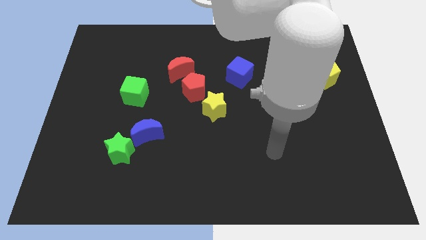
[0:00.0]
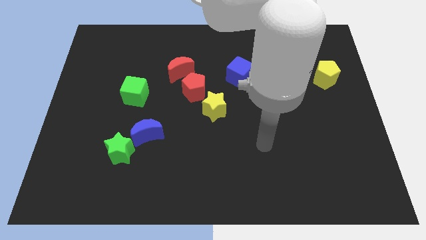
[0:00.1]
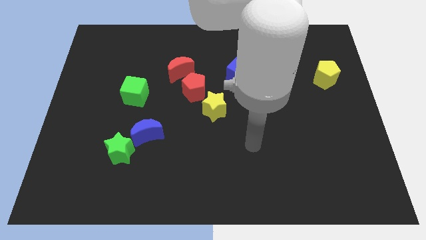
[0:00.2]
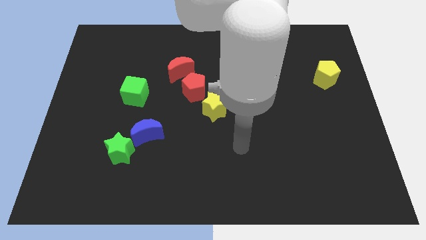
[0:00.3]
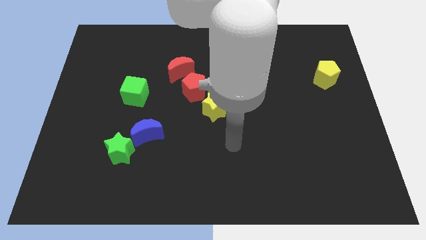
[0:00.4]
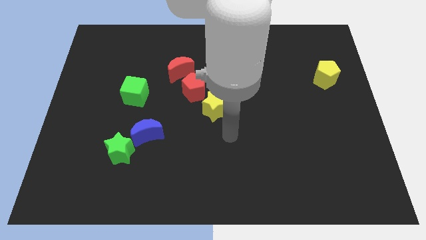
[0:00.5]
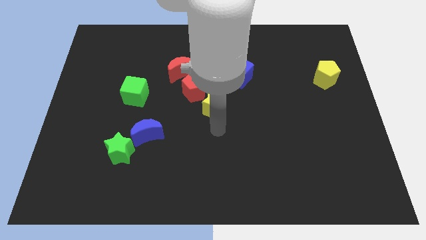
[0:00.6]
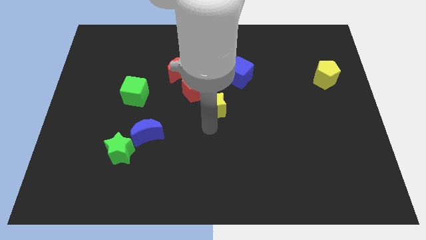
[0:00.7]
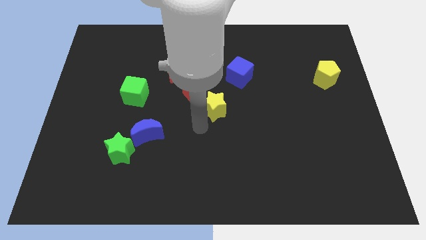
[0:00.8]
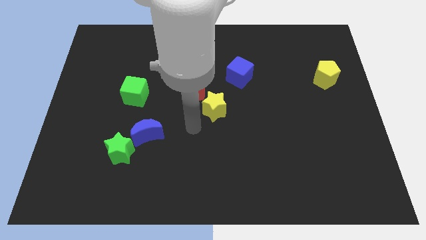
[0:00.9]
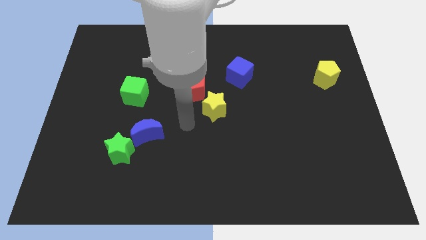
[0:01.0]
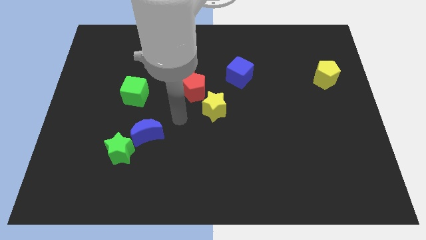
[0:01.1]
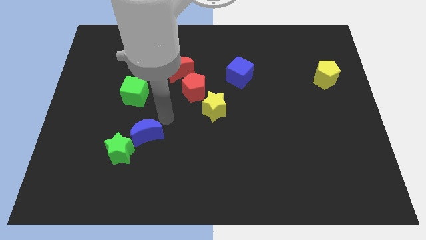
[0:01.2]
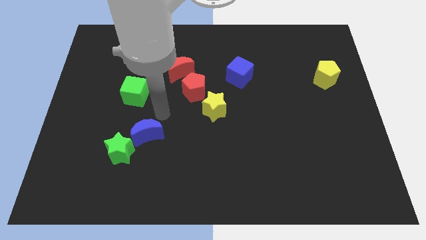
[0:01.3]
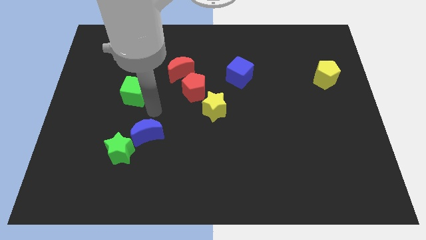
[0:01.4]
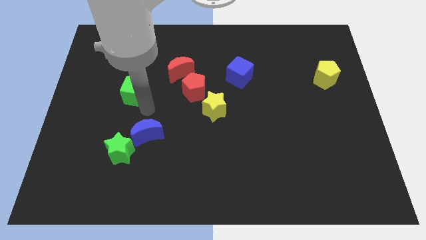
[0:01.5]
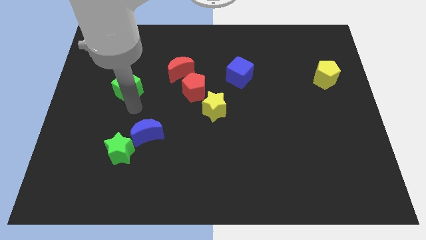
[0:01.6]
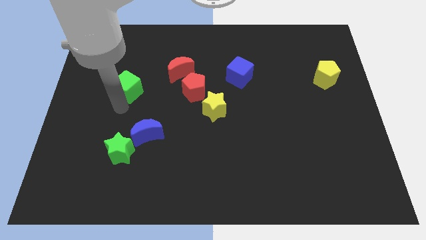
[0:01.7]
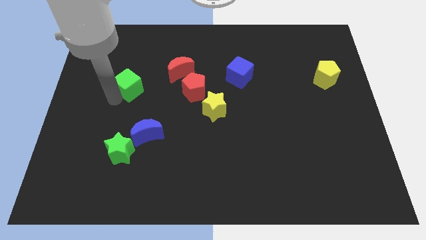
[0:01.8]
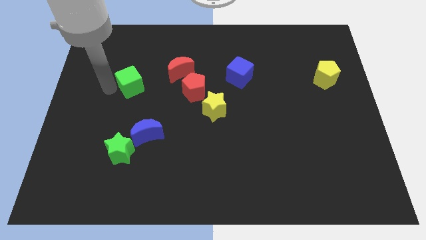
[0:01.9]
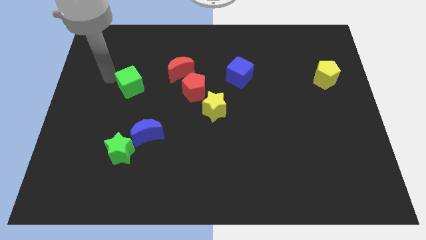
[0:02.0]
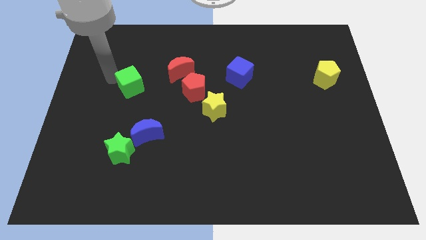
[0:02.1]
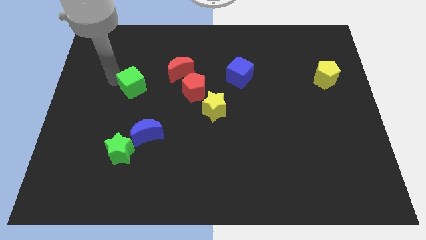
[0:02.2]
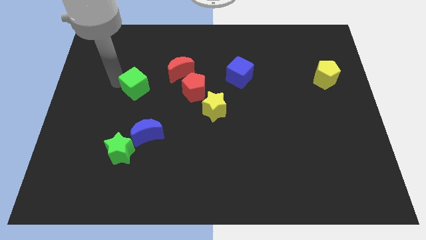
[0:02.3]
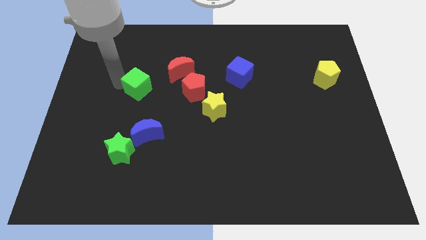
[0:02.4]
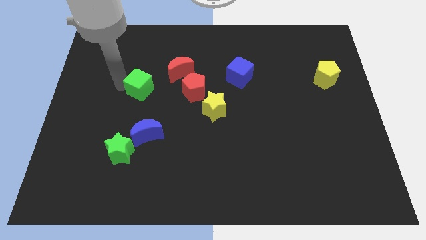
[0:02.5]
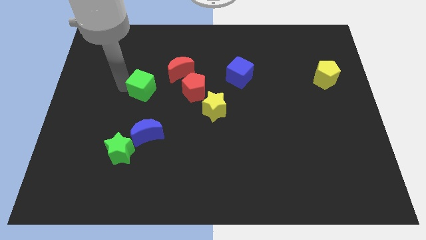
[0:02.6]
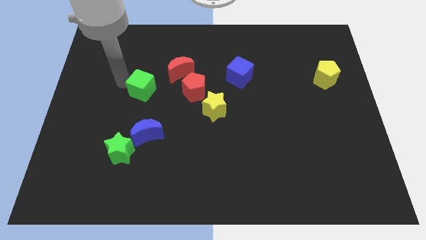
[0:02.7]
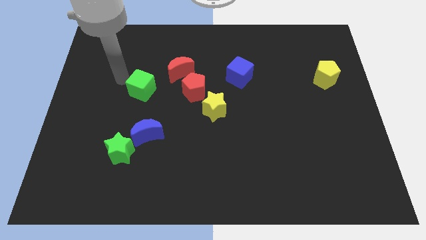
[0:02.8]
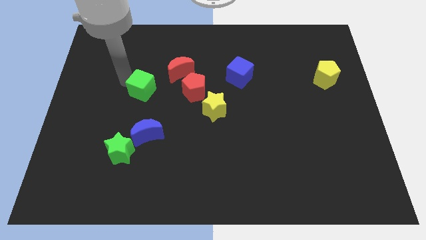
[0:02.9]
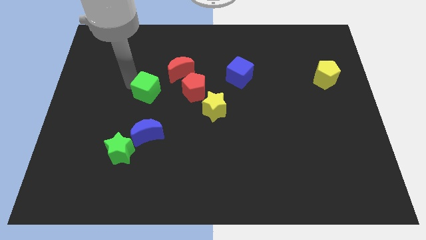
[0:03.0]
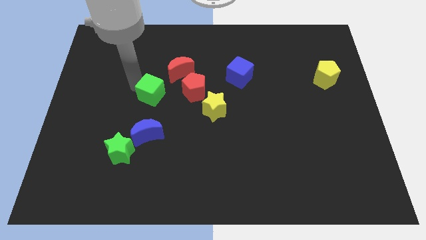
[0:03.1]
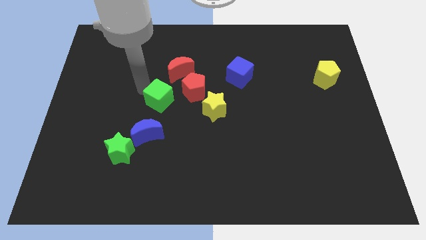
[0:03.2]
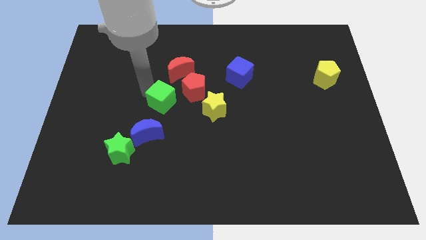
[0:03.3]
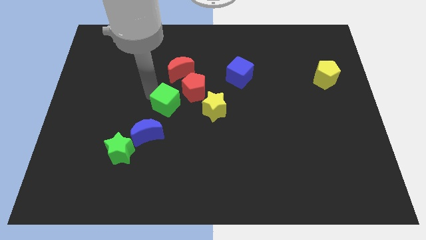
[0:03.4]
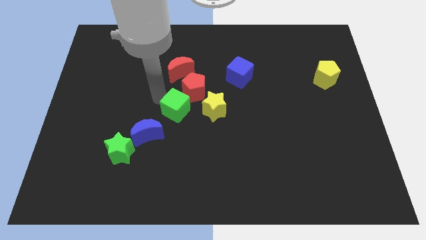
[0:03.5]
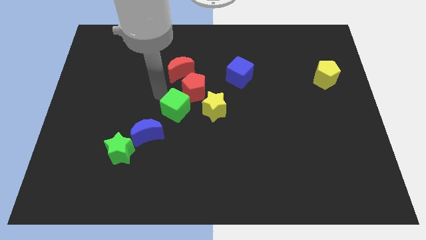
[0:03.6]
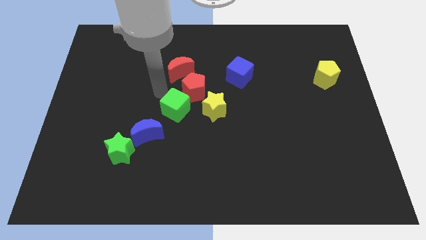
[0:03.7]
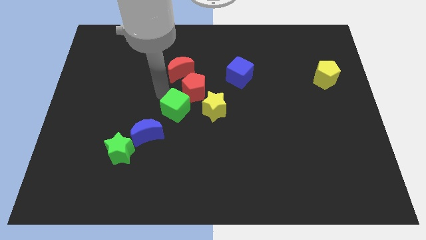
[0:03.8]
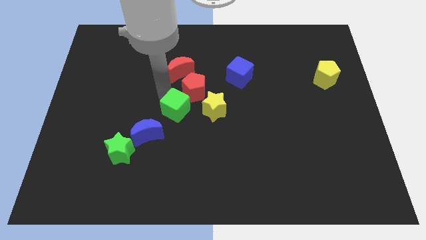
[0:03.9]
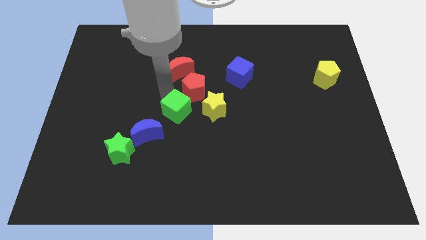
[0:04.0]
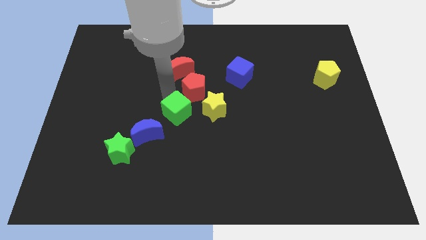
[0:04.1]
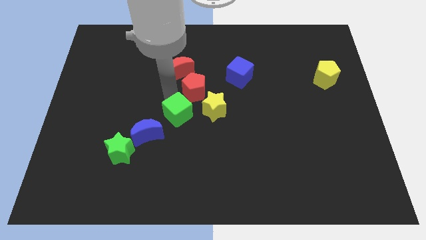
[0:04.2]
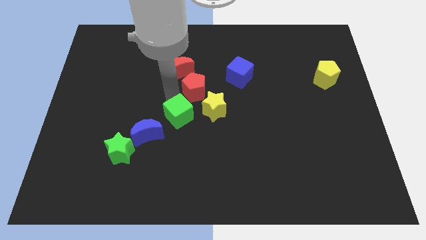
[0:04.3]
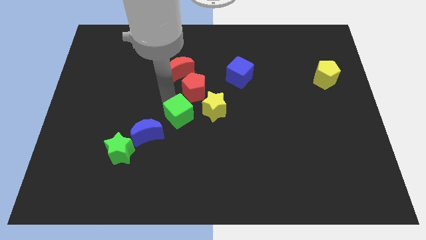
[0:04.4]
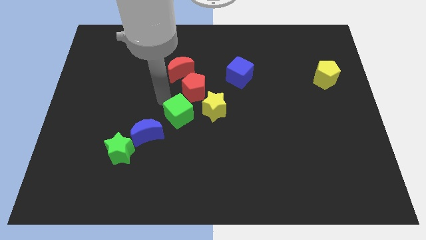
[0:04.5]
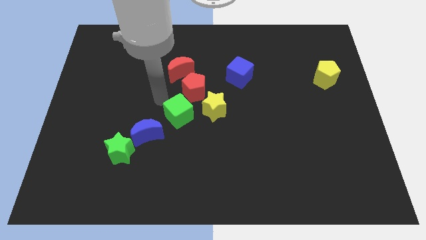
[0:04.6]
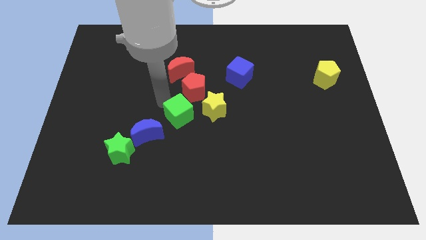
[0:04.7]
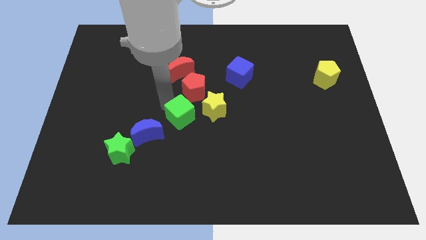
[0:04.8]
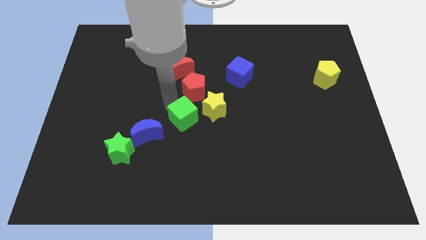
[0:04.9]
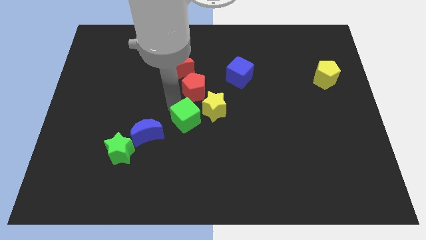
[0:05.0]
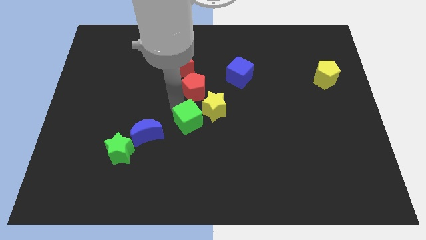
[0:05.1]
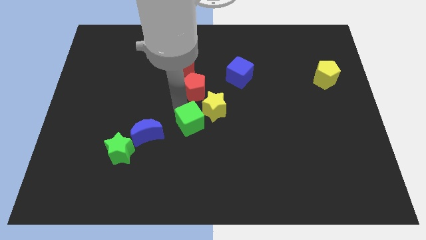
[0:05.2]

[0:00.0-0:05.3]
slide the green cube close to the yellow star

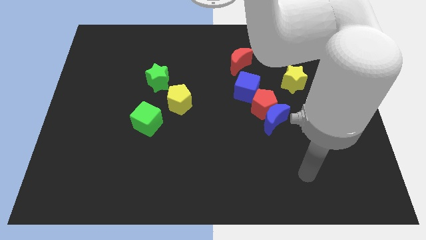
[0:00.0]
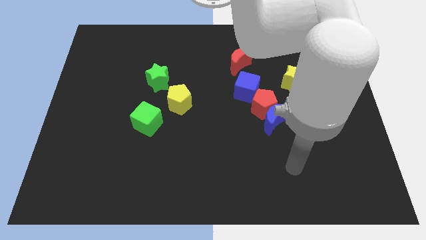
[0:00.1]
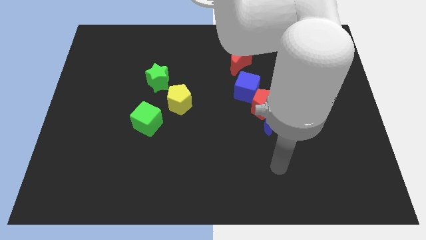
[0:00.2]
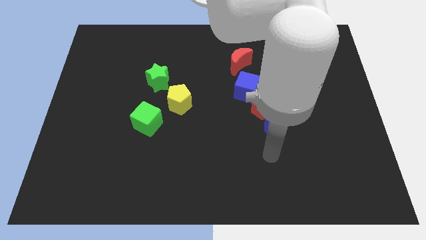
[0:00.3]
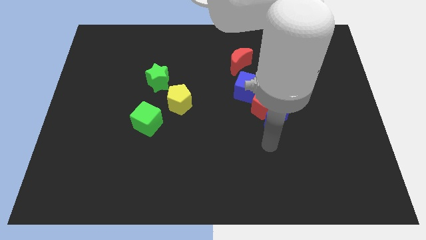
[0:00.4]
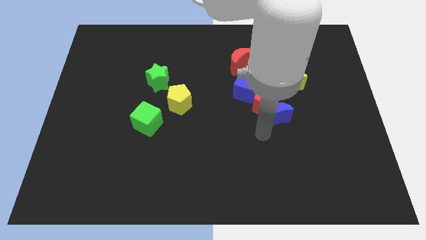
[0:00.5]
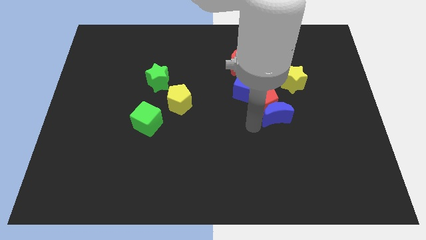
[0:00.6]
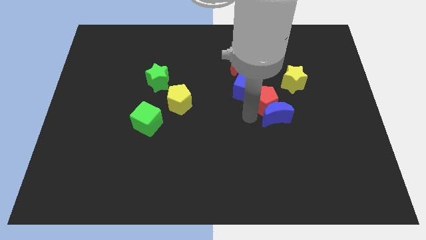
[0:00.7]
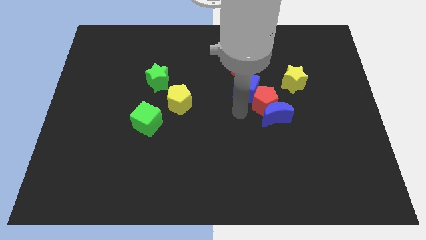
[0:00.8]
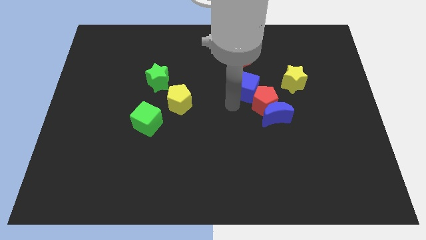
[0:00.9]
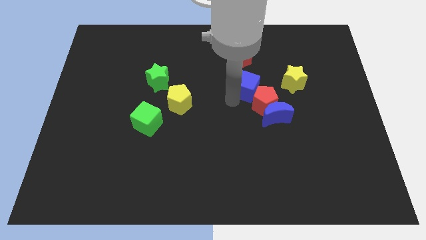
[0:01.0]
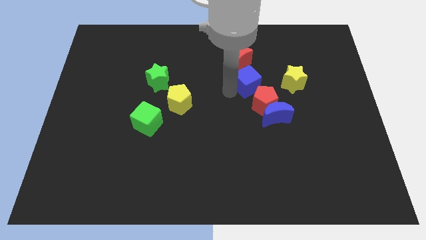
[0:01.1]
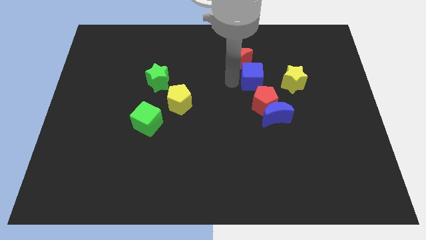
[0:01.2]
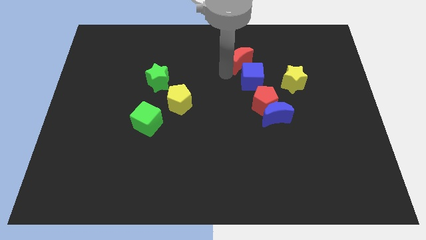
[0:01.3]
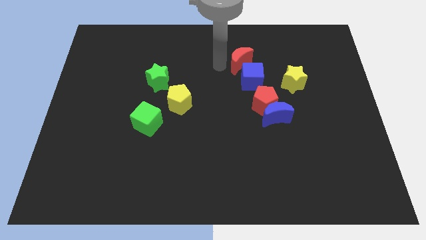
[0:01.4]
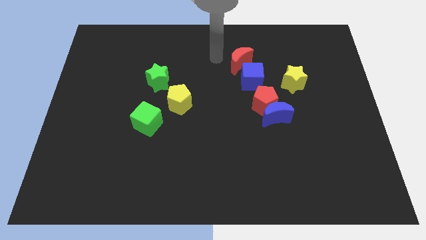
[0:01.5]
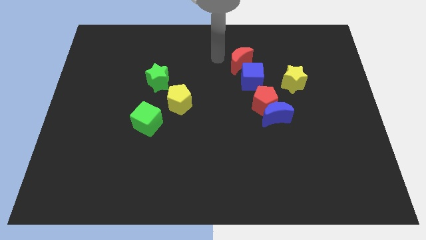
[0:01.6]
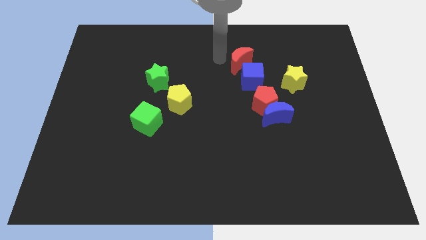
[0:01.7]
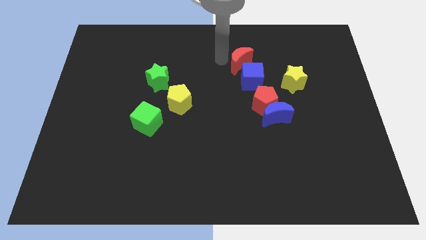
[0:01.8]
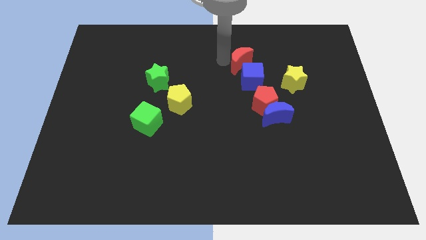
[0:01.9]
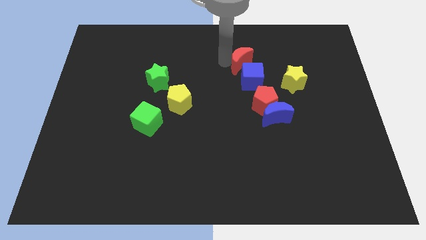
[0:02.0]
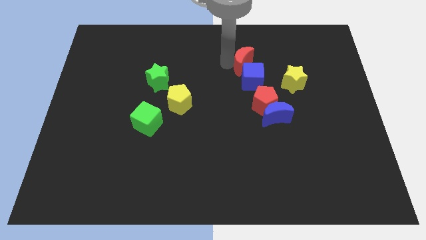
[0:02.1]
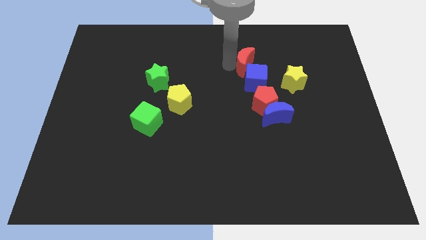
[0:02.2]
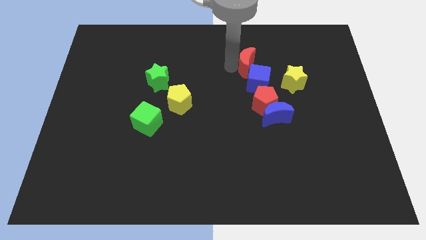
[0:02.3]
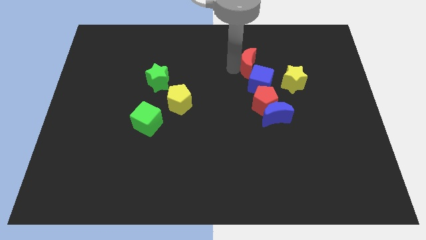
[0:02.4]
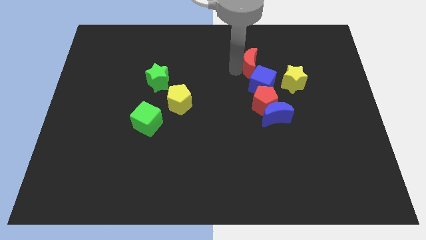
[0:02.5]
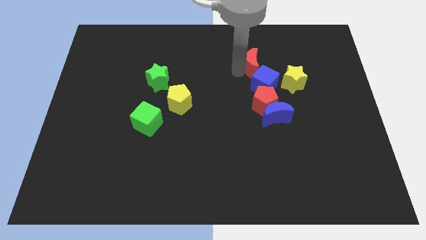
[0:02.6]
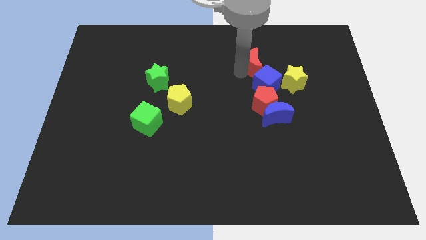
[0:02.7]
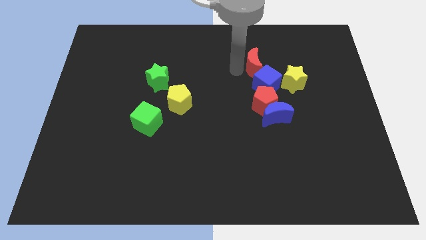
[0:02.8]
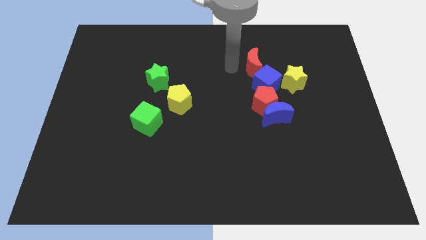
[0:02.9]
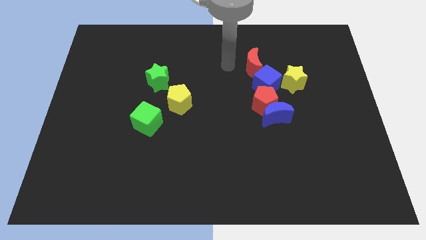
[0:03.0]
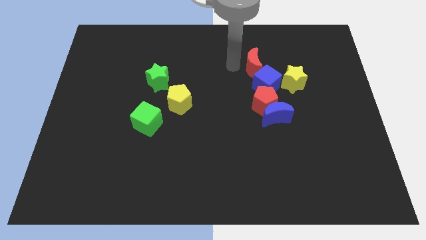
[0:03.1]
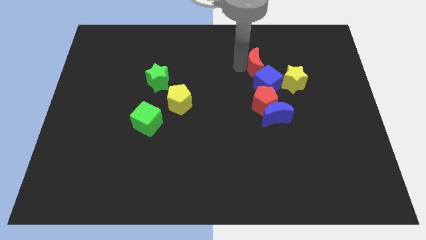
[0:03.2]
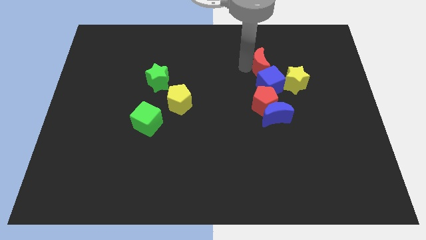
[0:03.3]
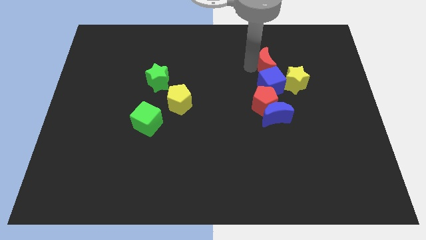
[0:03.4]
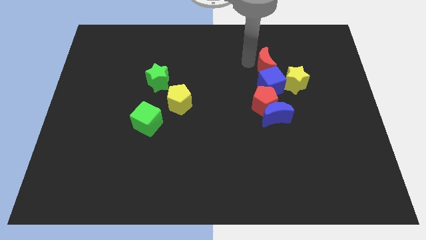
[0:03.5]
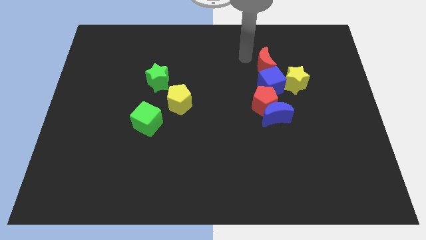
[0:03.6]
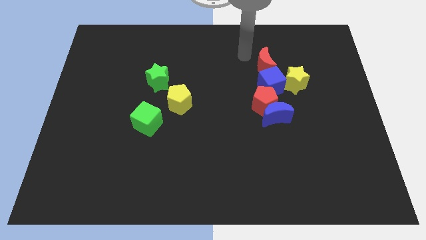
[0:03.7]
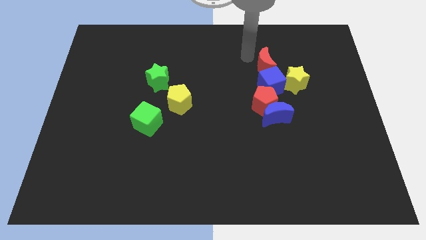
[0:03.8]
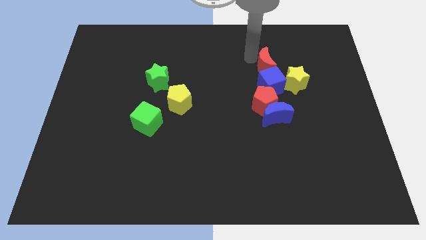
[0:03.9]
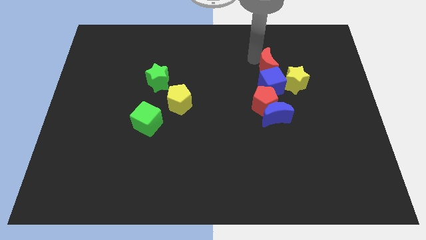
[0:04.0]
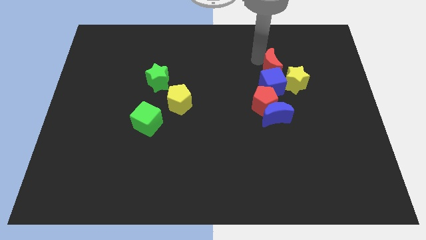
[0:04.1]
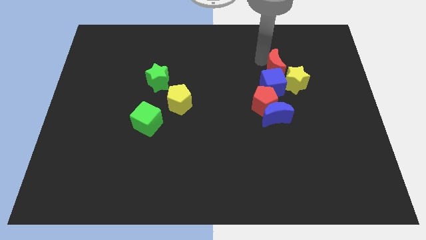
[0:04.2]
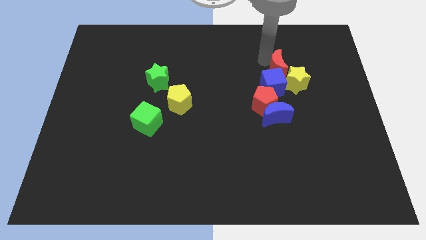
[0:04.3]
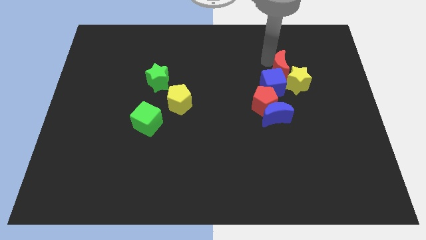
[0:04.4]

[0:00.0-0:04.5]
move the red moon to the yellow star
